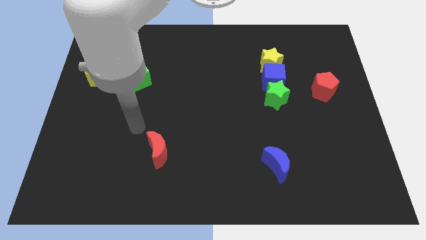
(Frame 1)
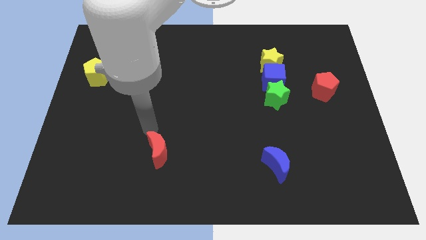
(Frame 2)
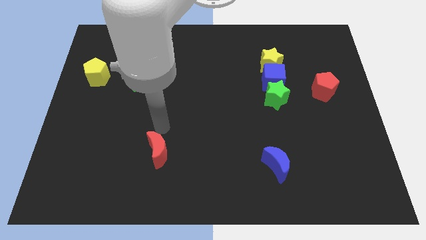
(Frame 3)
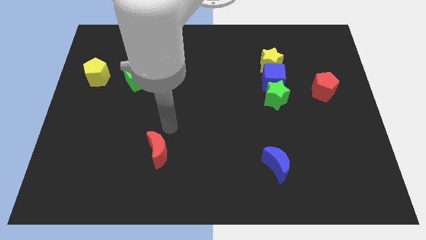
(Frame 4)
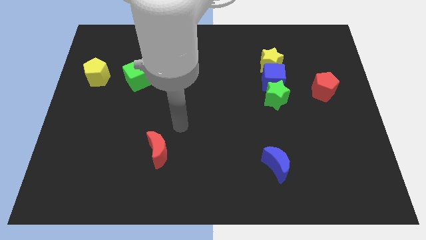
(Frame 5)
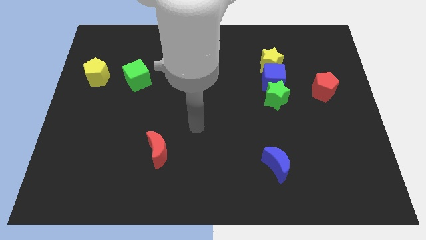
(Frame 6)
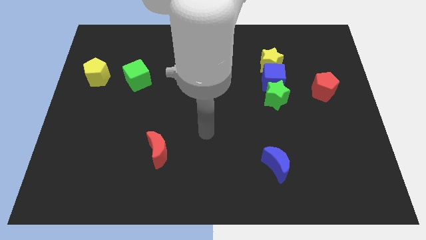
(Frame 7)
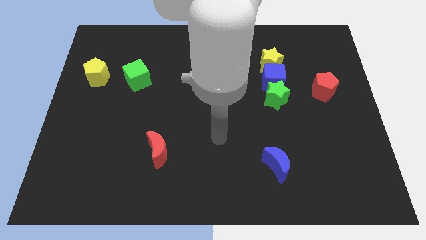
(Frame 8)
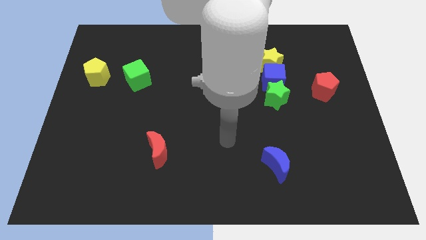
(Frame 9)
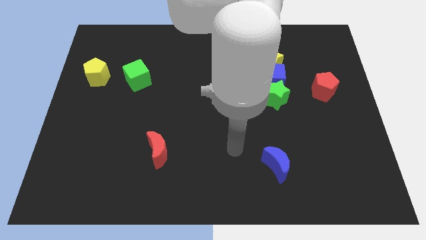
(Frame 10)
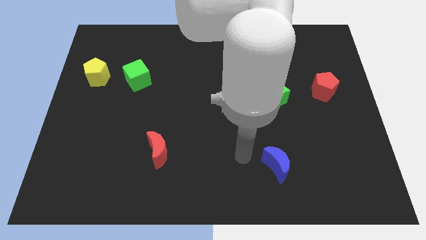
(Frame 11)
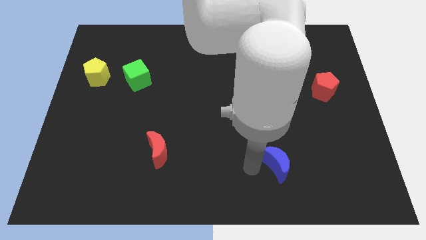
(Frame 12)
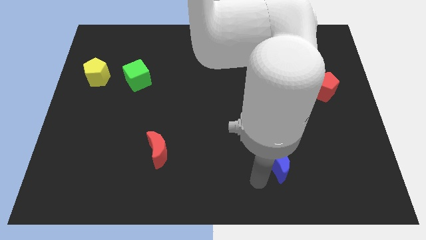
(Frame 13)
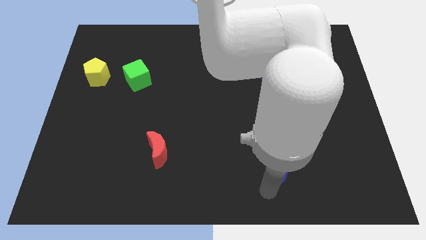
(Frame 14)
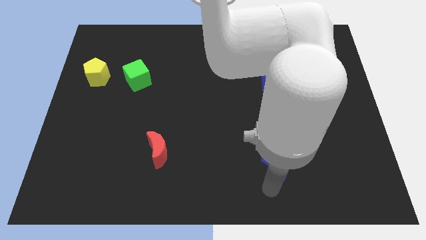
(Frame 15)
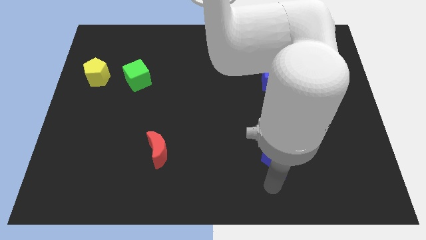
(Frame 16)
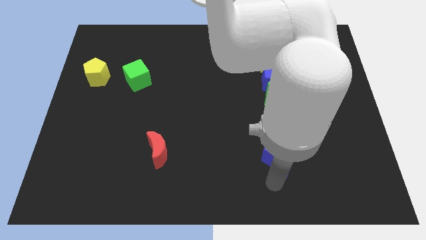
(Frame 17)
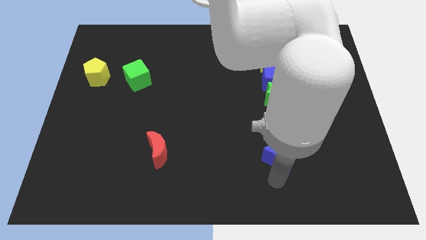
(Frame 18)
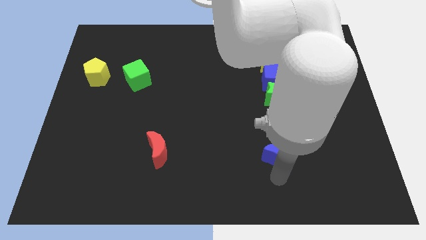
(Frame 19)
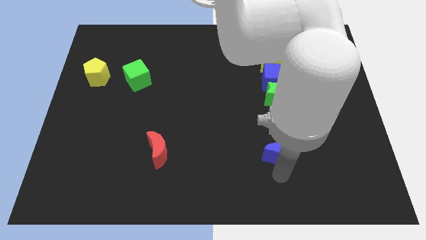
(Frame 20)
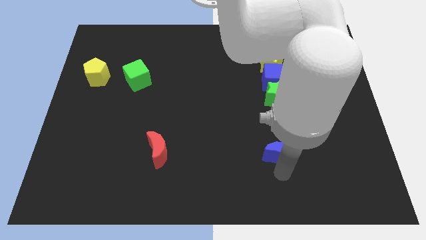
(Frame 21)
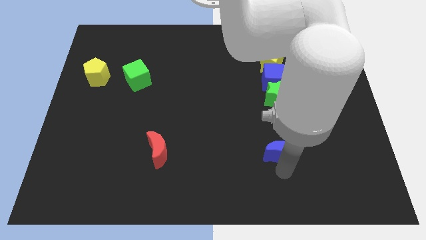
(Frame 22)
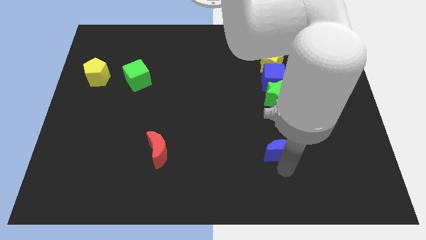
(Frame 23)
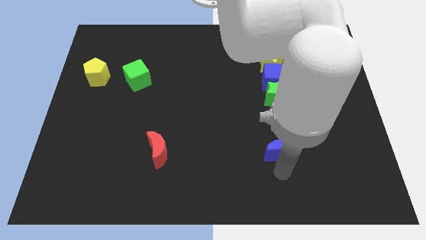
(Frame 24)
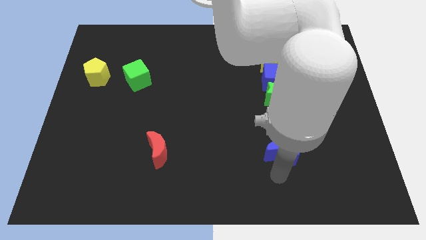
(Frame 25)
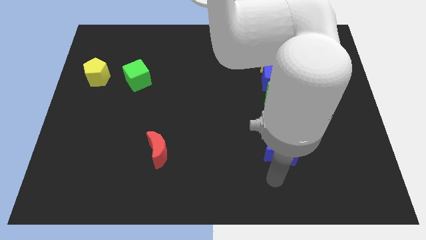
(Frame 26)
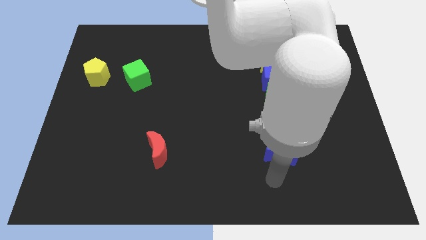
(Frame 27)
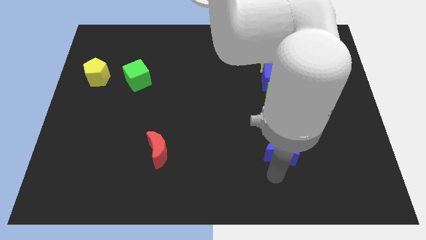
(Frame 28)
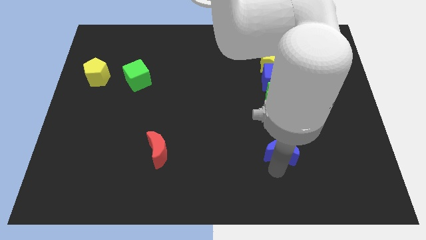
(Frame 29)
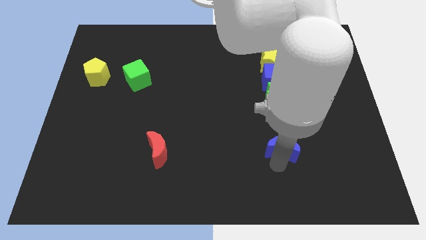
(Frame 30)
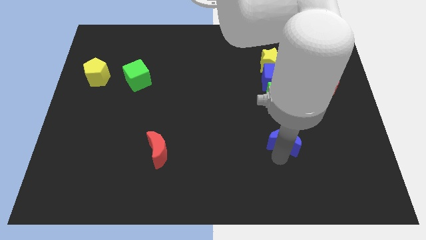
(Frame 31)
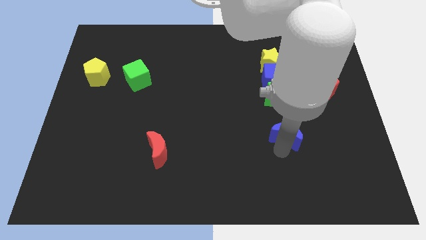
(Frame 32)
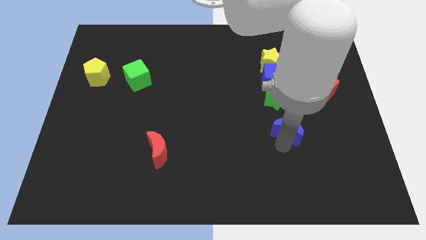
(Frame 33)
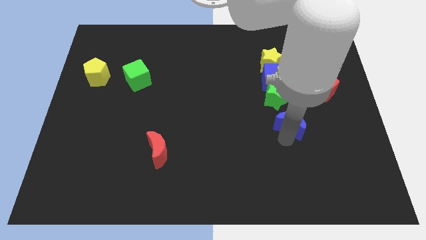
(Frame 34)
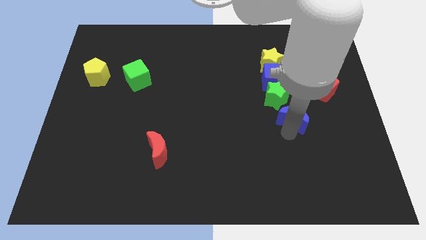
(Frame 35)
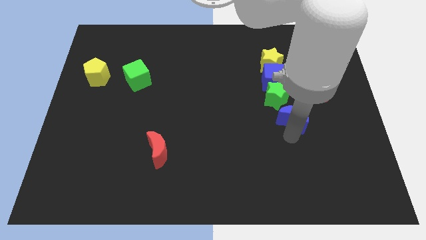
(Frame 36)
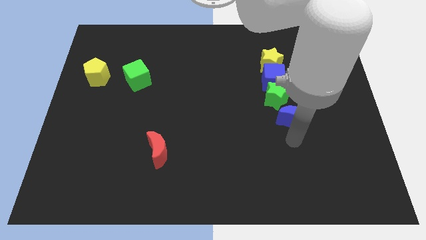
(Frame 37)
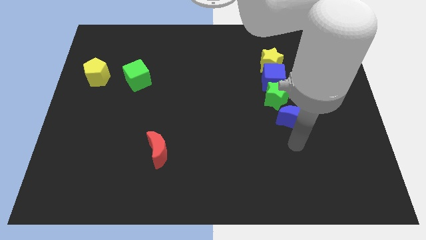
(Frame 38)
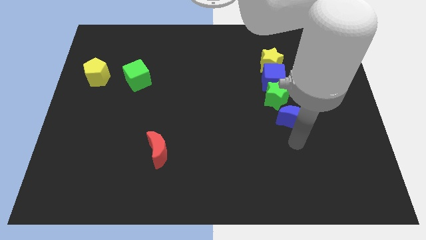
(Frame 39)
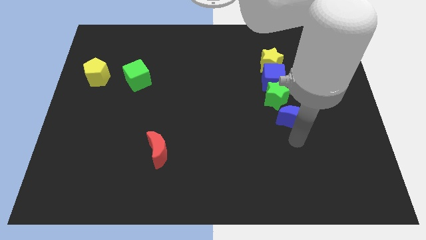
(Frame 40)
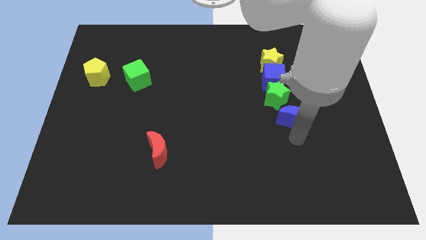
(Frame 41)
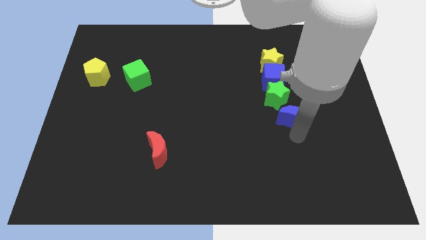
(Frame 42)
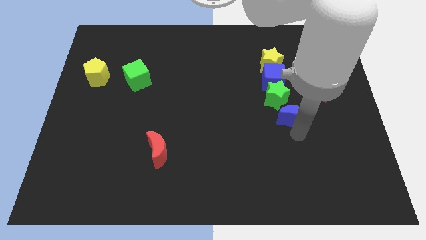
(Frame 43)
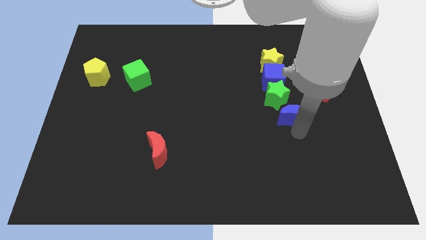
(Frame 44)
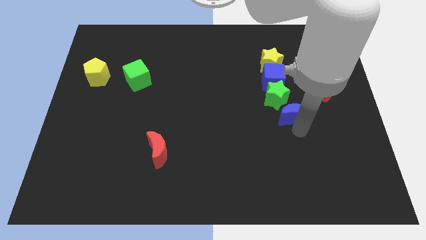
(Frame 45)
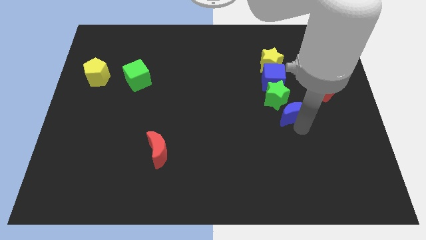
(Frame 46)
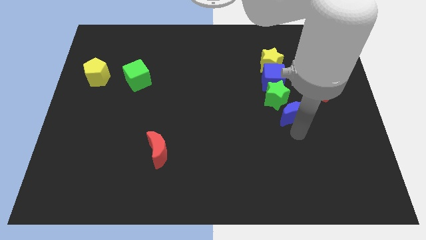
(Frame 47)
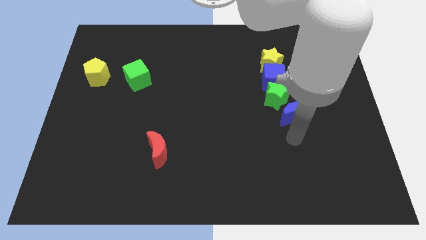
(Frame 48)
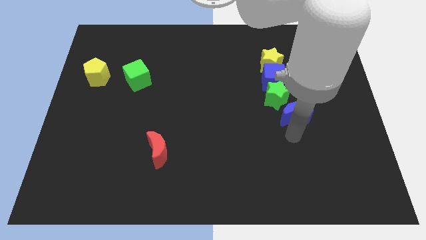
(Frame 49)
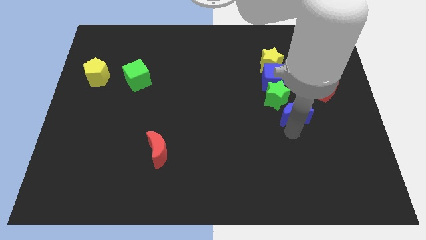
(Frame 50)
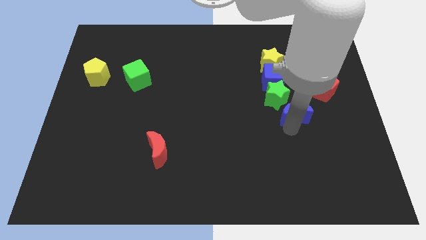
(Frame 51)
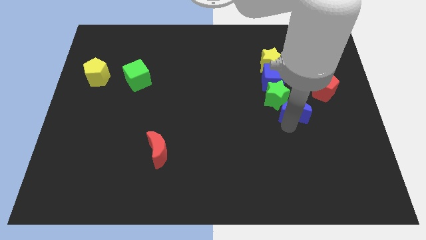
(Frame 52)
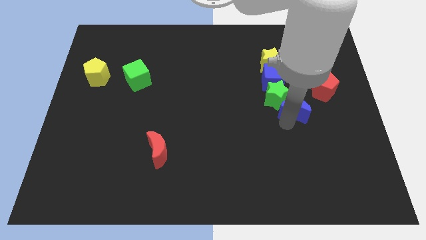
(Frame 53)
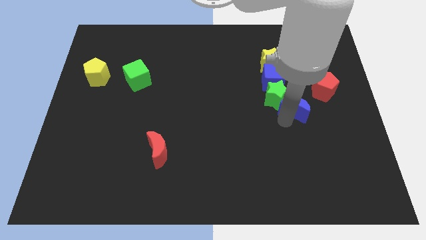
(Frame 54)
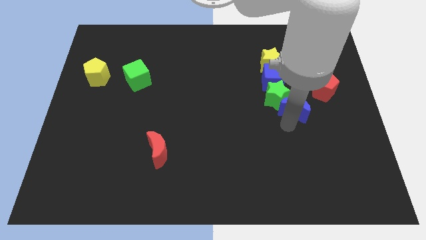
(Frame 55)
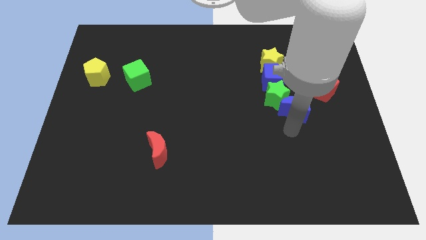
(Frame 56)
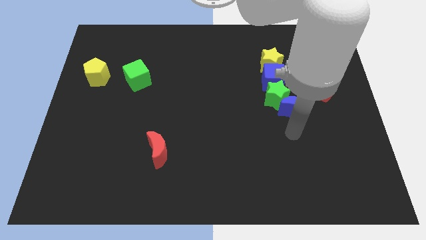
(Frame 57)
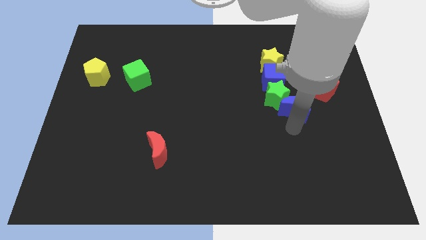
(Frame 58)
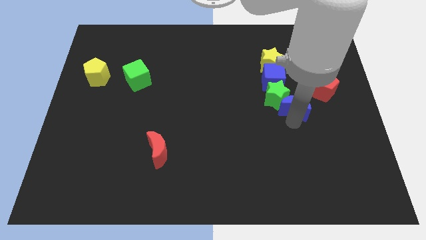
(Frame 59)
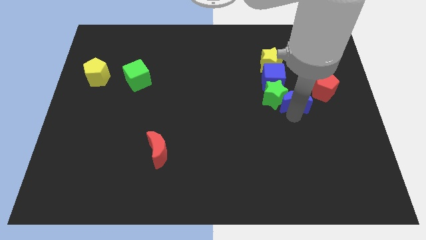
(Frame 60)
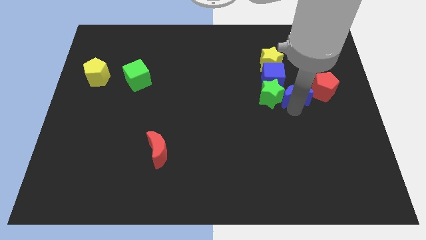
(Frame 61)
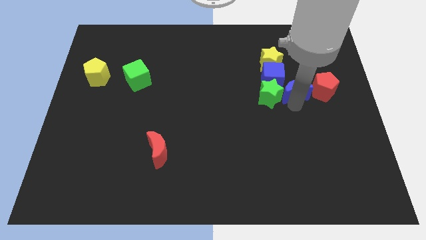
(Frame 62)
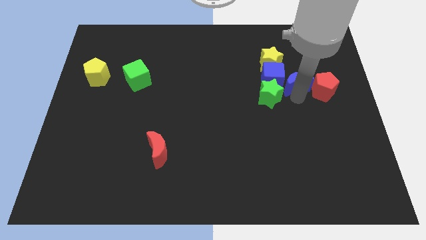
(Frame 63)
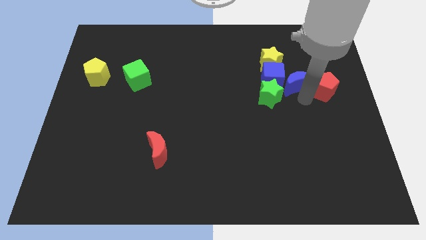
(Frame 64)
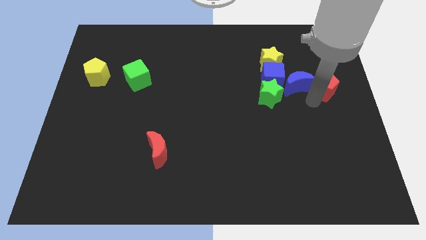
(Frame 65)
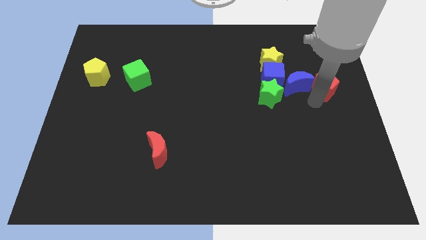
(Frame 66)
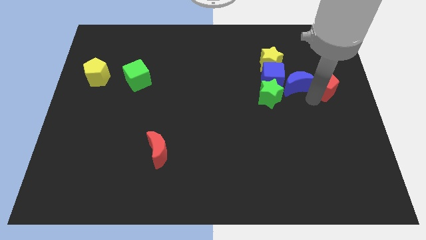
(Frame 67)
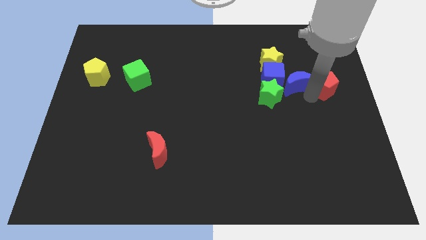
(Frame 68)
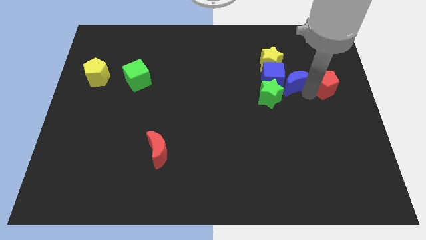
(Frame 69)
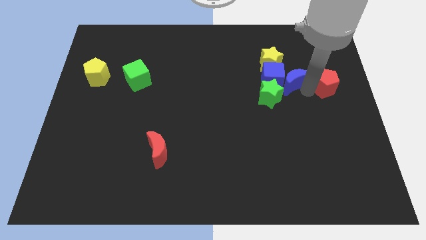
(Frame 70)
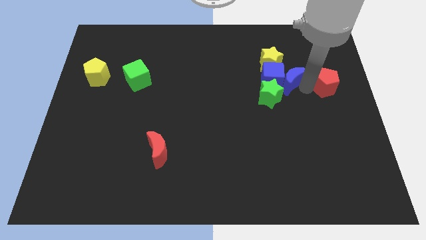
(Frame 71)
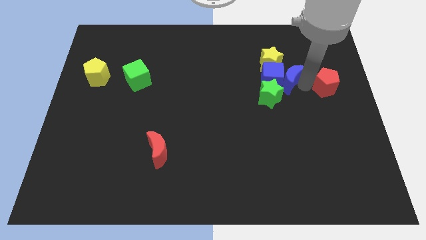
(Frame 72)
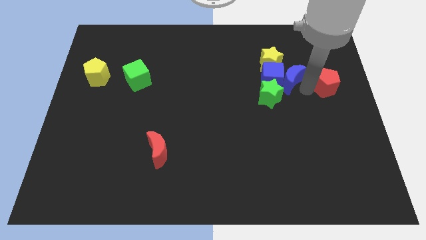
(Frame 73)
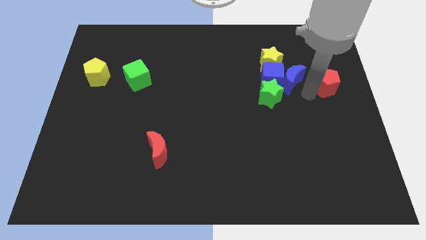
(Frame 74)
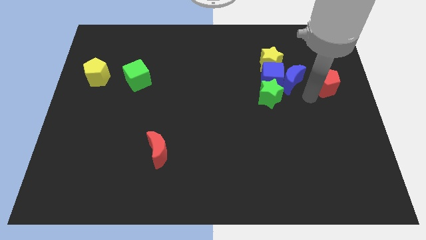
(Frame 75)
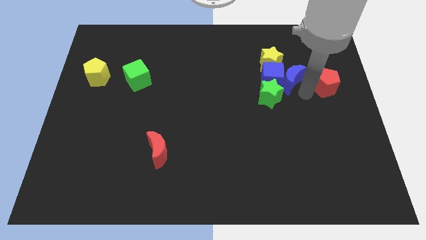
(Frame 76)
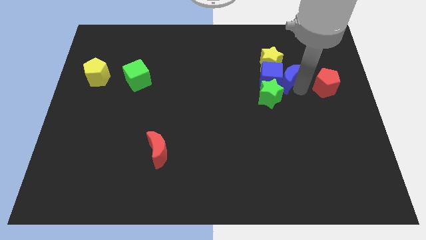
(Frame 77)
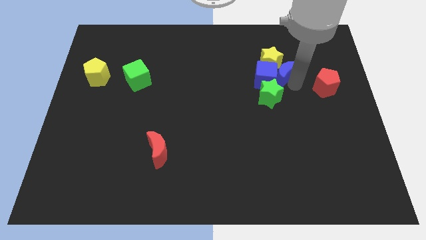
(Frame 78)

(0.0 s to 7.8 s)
move the blue moon towards the yellow star
